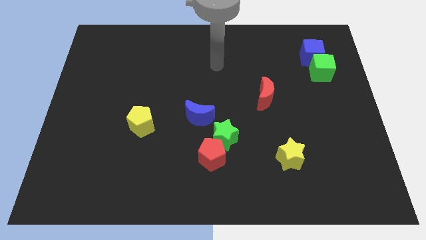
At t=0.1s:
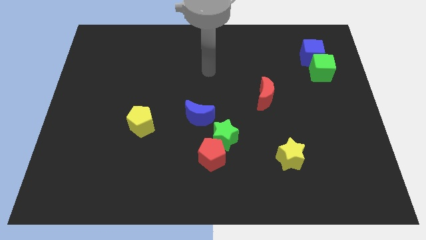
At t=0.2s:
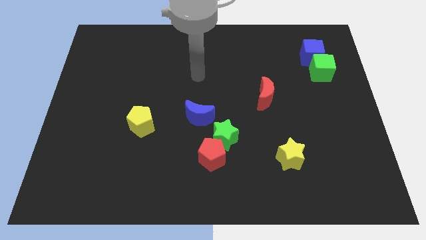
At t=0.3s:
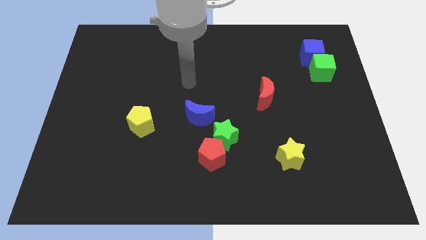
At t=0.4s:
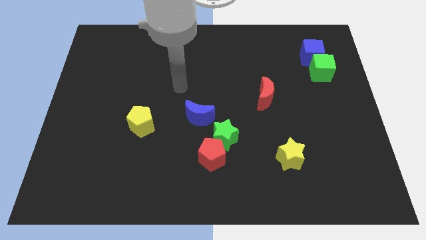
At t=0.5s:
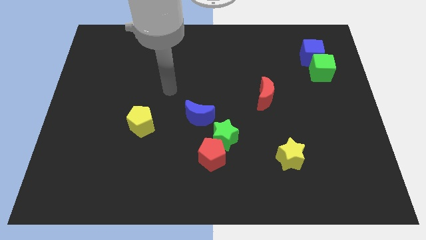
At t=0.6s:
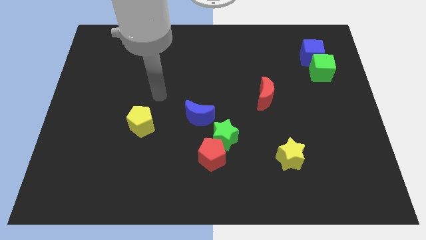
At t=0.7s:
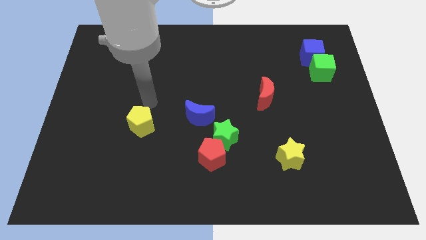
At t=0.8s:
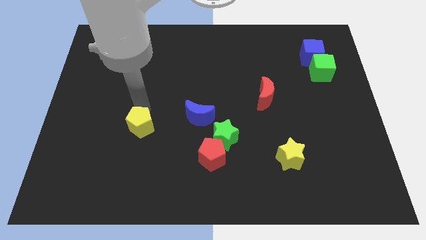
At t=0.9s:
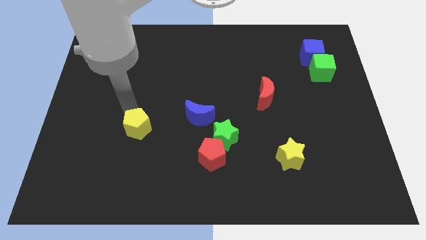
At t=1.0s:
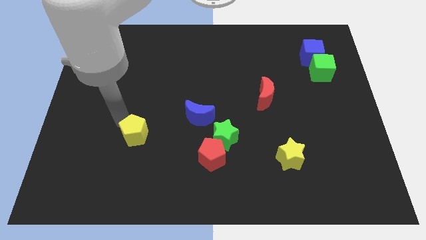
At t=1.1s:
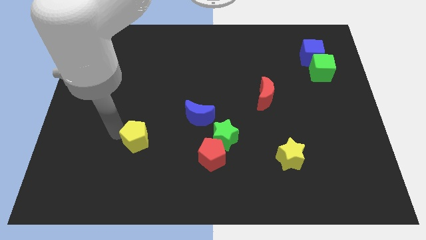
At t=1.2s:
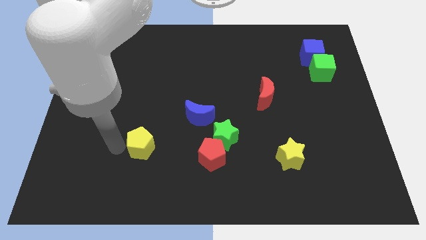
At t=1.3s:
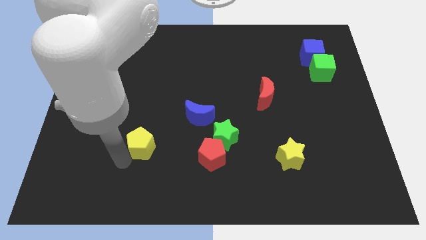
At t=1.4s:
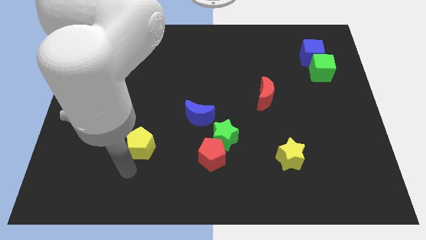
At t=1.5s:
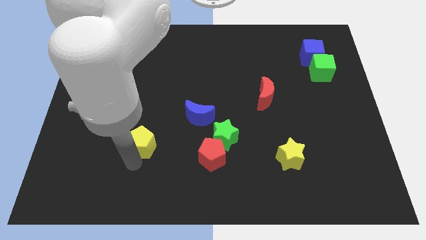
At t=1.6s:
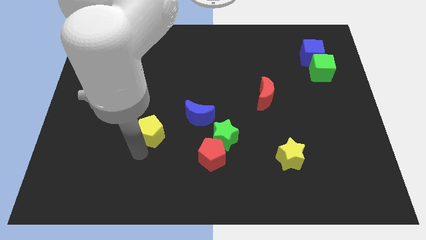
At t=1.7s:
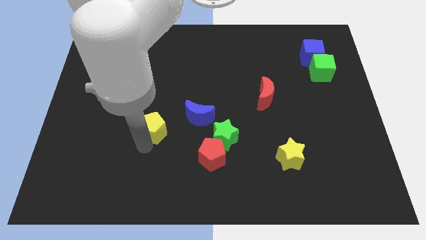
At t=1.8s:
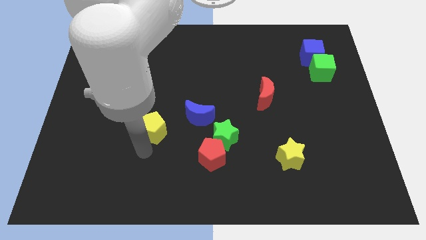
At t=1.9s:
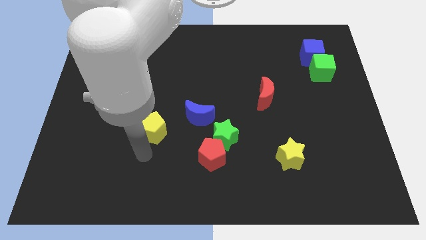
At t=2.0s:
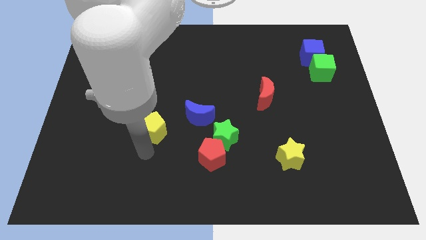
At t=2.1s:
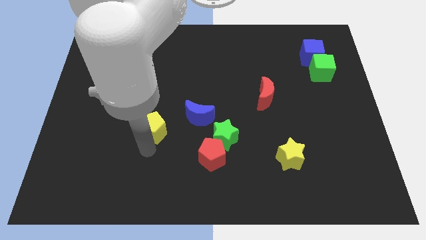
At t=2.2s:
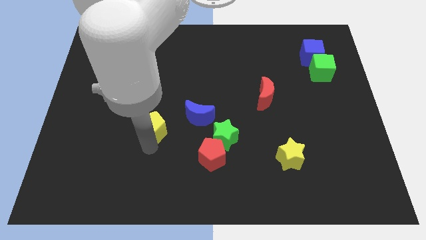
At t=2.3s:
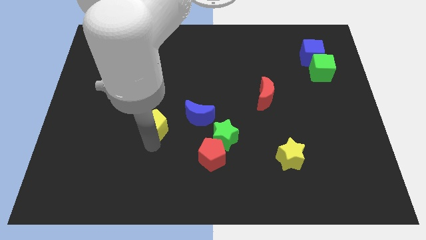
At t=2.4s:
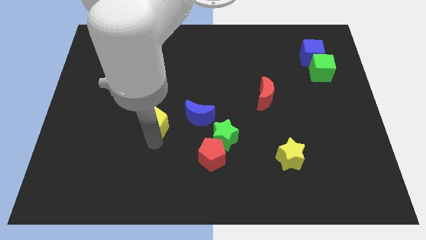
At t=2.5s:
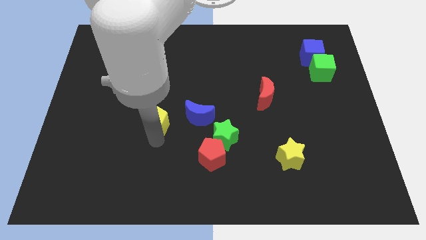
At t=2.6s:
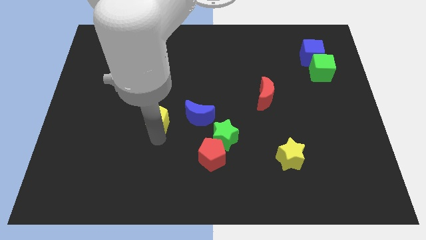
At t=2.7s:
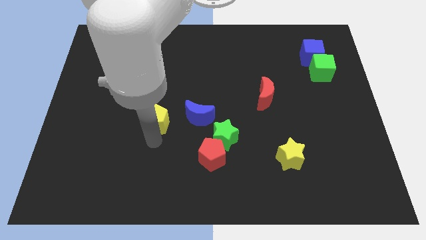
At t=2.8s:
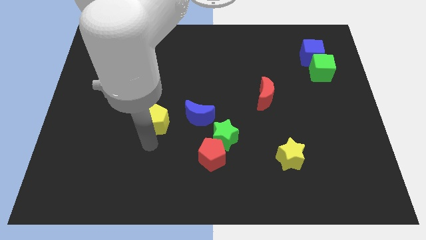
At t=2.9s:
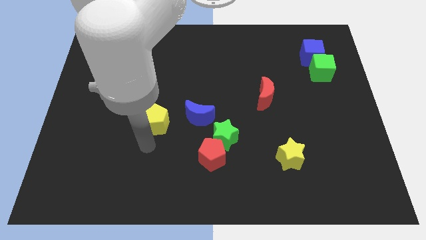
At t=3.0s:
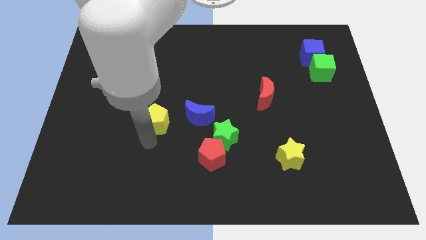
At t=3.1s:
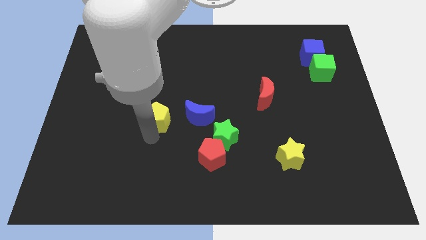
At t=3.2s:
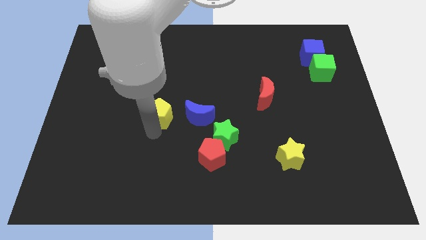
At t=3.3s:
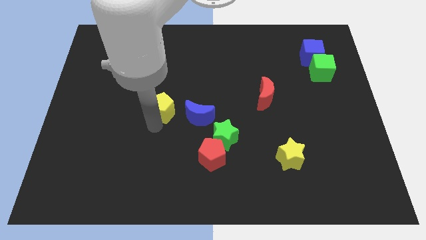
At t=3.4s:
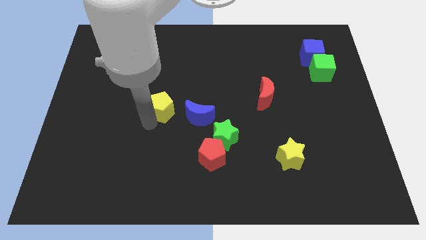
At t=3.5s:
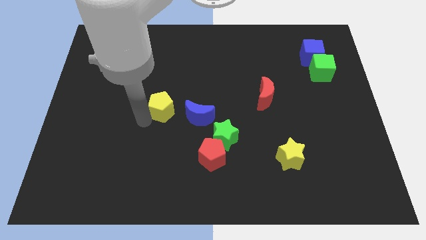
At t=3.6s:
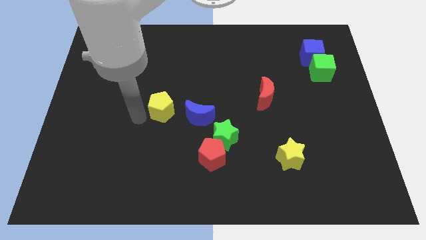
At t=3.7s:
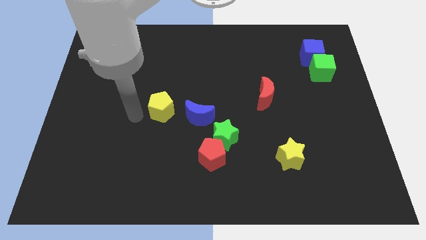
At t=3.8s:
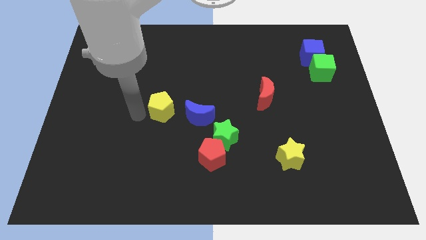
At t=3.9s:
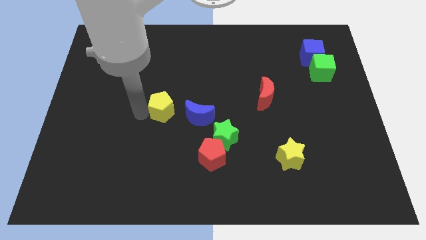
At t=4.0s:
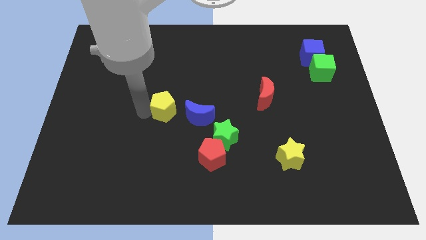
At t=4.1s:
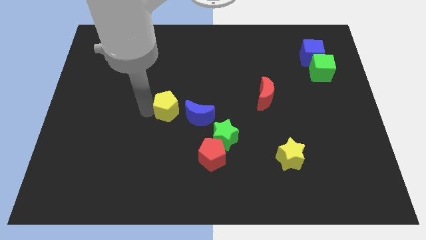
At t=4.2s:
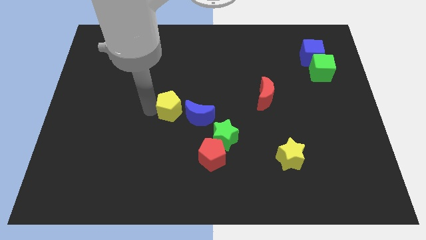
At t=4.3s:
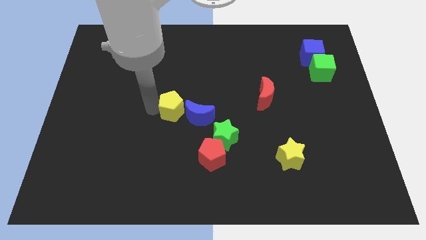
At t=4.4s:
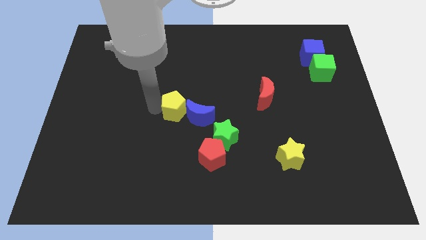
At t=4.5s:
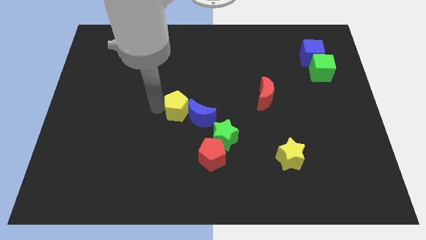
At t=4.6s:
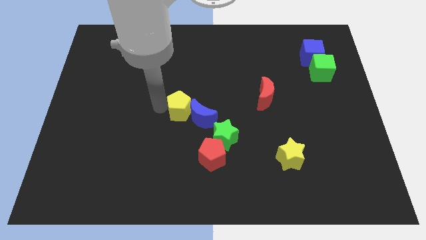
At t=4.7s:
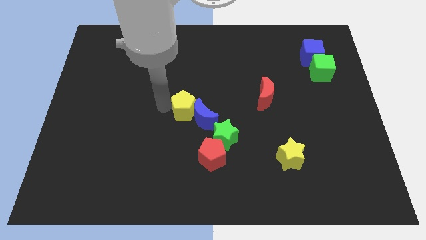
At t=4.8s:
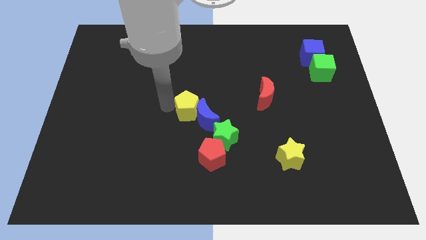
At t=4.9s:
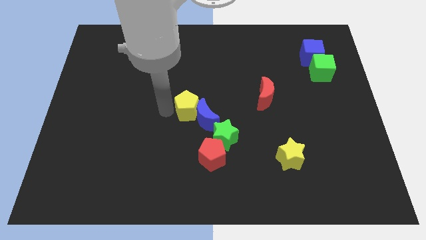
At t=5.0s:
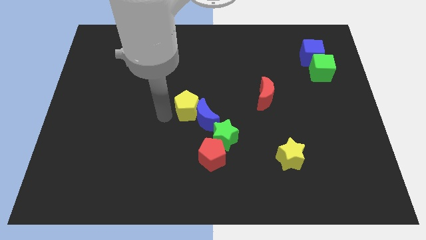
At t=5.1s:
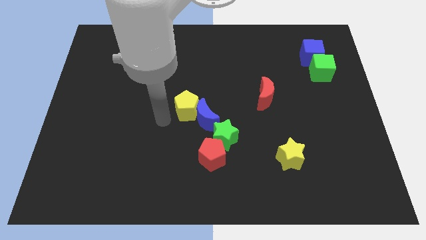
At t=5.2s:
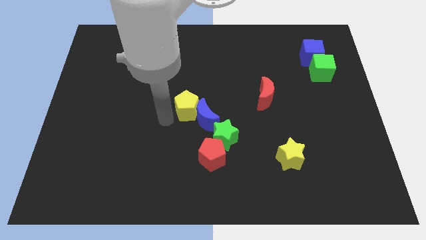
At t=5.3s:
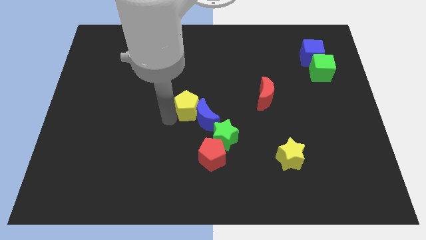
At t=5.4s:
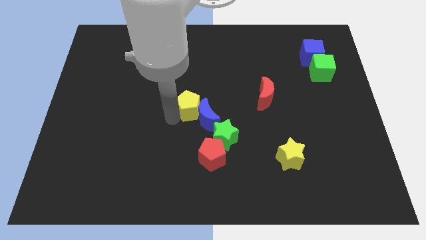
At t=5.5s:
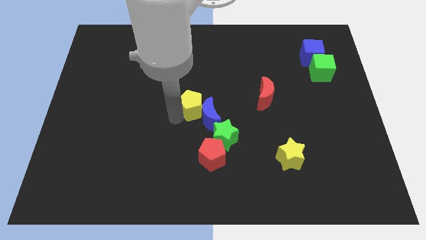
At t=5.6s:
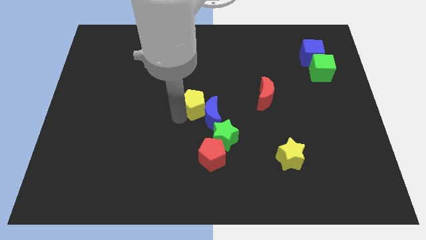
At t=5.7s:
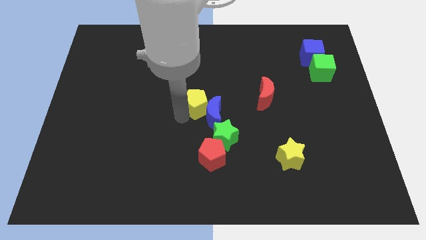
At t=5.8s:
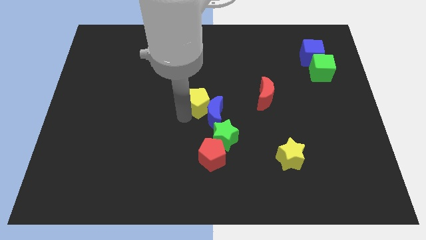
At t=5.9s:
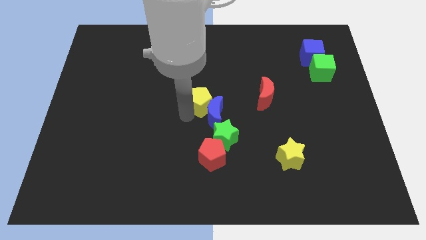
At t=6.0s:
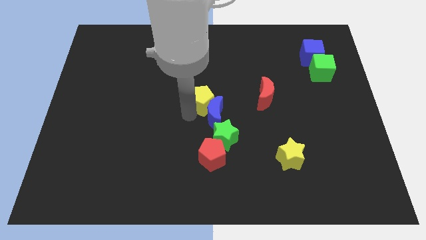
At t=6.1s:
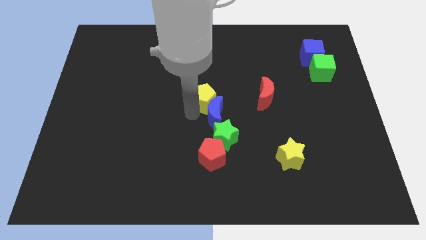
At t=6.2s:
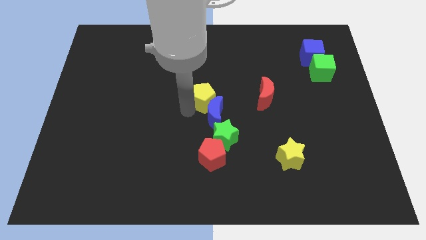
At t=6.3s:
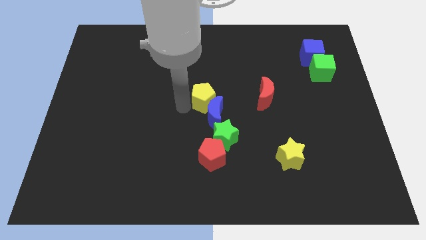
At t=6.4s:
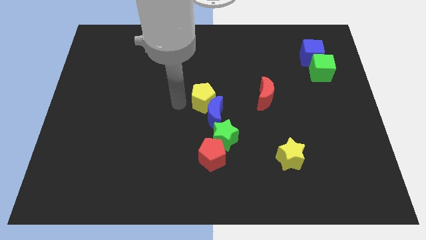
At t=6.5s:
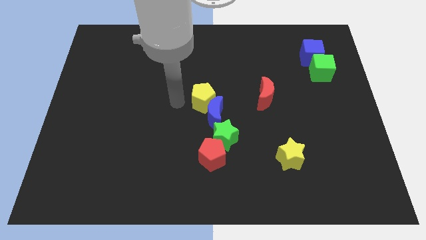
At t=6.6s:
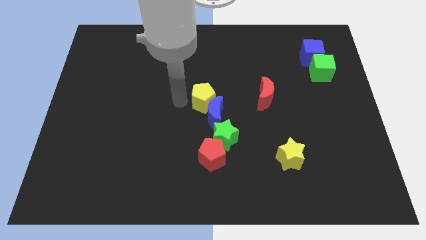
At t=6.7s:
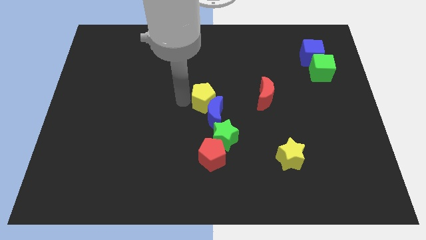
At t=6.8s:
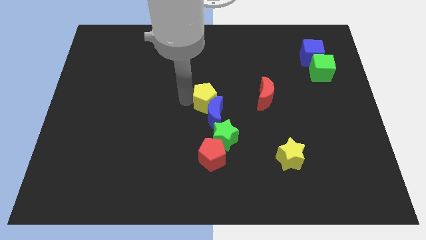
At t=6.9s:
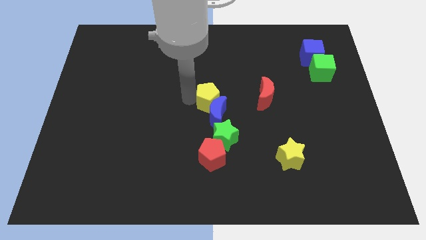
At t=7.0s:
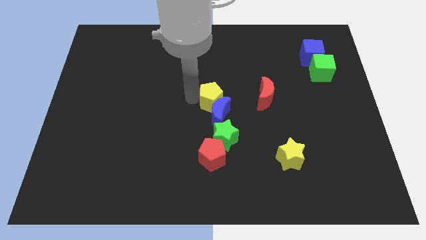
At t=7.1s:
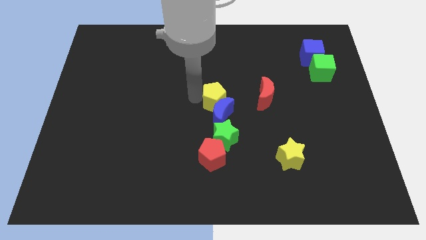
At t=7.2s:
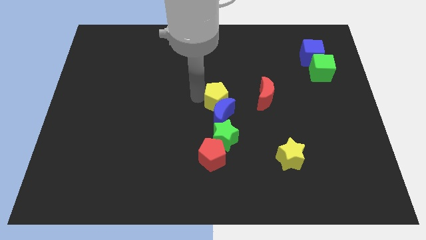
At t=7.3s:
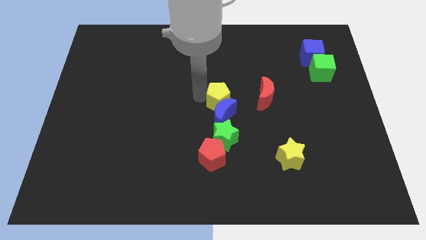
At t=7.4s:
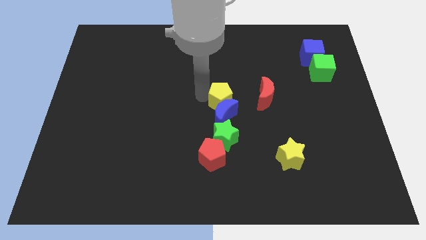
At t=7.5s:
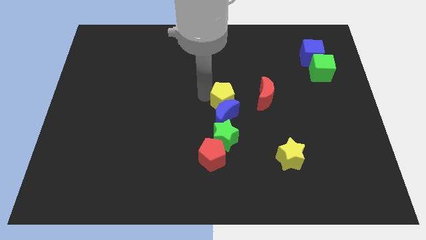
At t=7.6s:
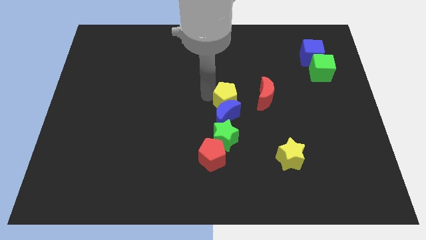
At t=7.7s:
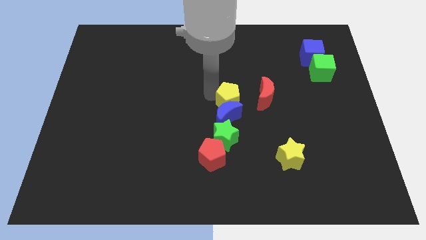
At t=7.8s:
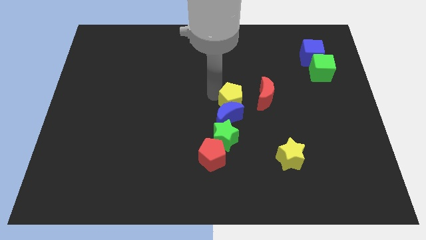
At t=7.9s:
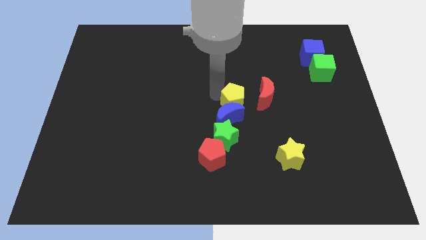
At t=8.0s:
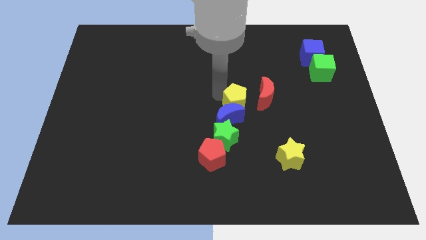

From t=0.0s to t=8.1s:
slide the yellow pentagon right
